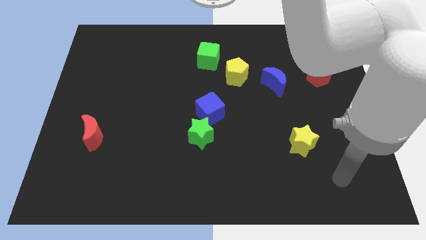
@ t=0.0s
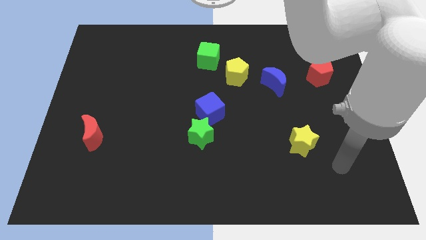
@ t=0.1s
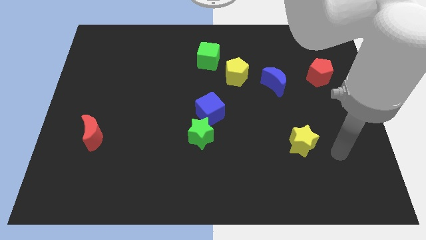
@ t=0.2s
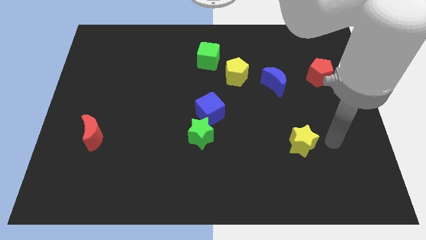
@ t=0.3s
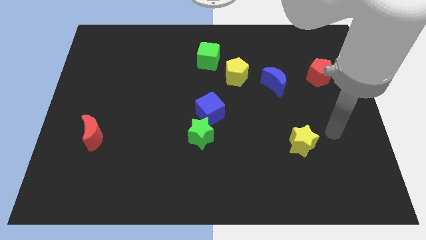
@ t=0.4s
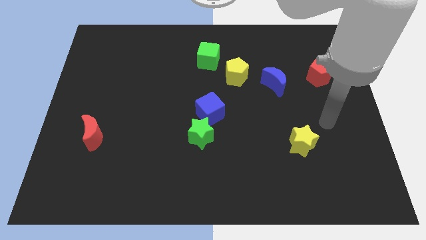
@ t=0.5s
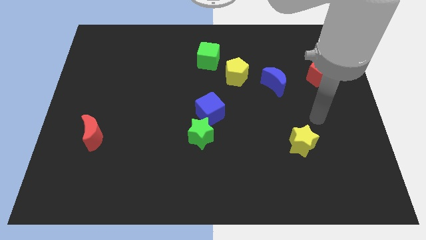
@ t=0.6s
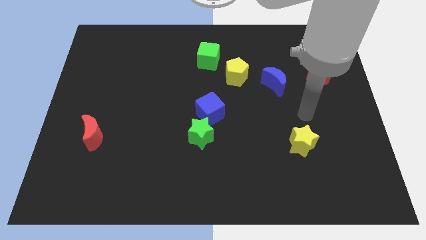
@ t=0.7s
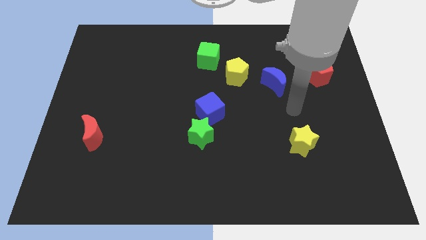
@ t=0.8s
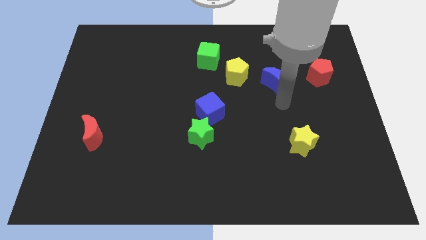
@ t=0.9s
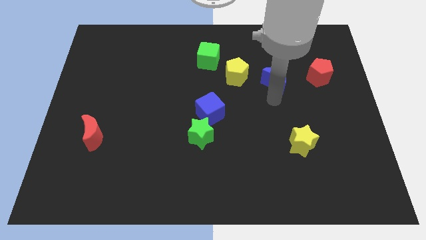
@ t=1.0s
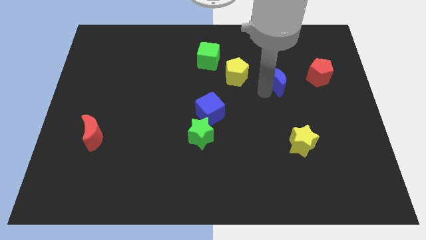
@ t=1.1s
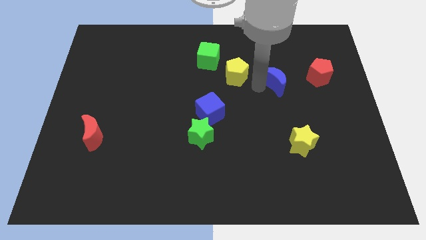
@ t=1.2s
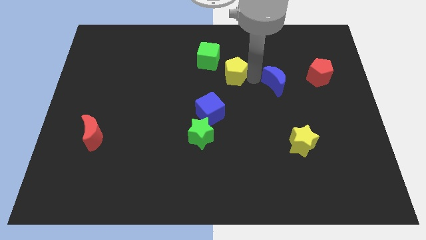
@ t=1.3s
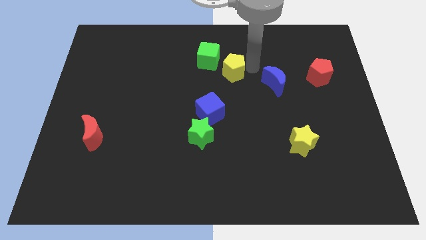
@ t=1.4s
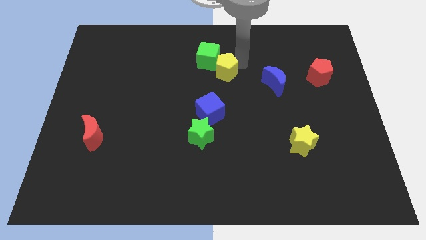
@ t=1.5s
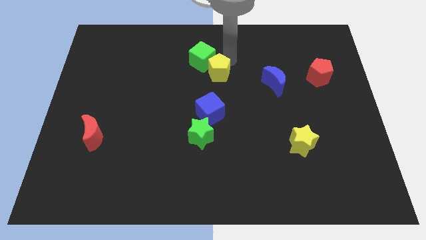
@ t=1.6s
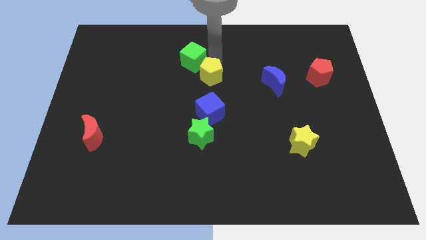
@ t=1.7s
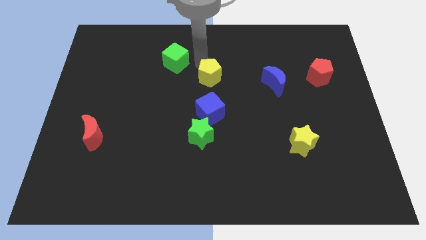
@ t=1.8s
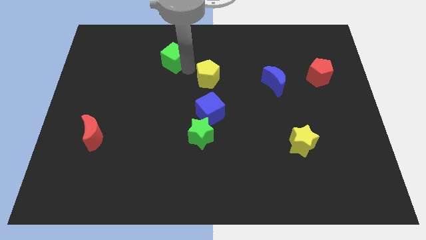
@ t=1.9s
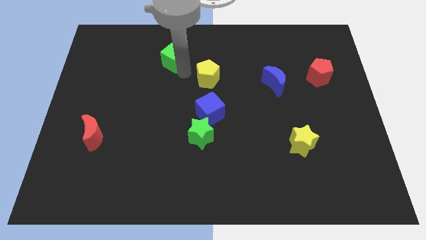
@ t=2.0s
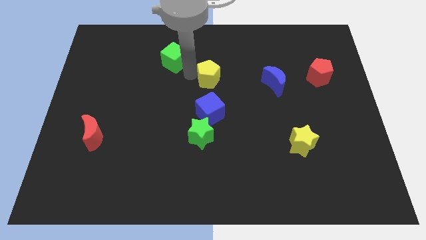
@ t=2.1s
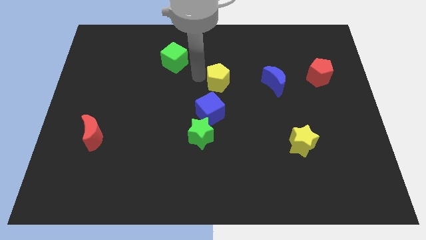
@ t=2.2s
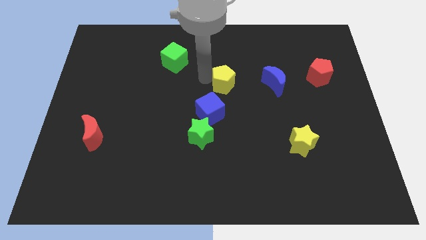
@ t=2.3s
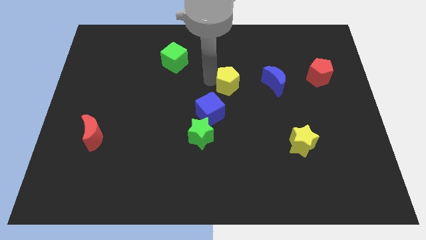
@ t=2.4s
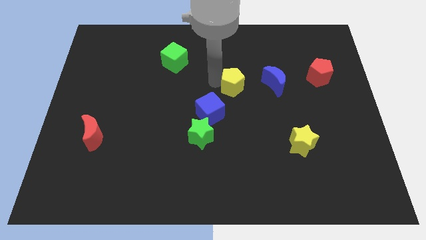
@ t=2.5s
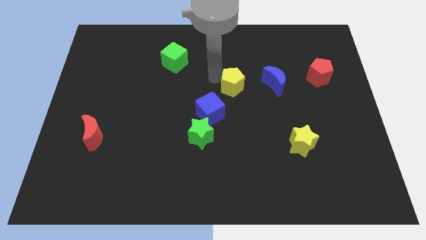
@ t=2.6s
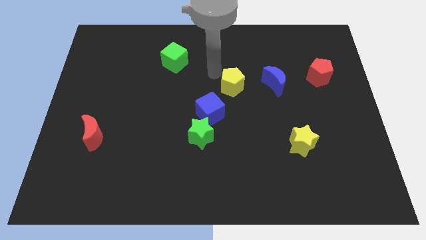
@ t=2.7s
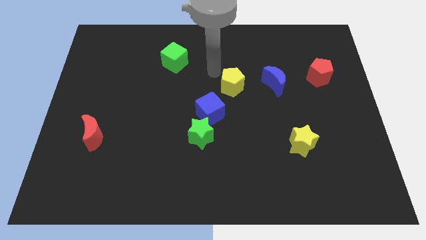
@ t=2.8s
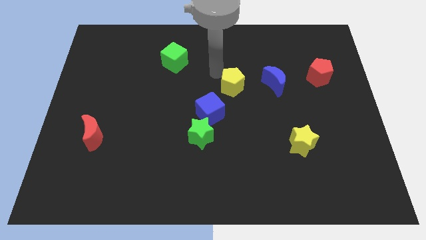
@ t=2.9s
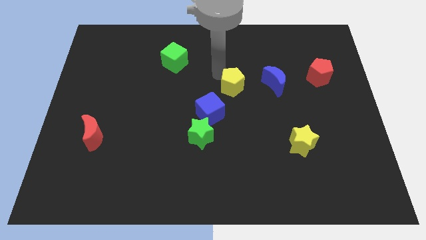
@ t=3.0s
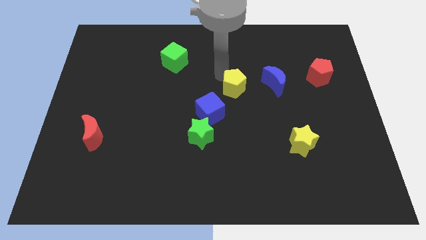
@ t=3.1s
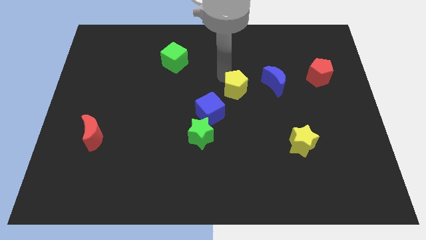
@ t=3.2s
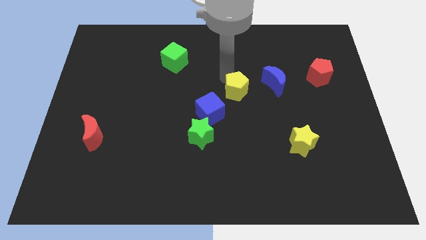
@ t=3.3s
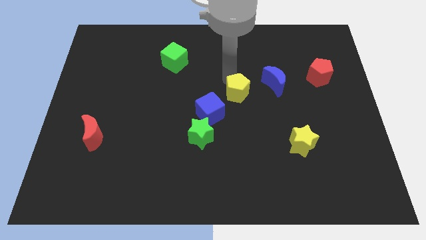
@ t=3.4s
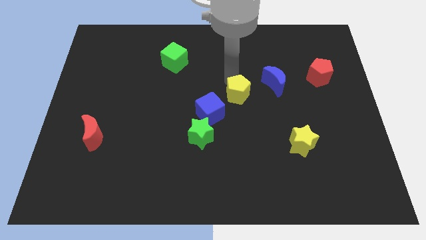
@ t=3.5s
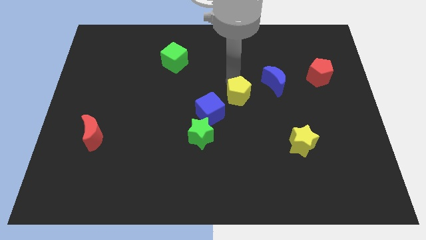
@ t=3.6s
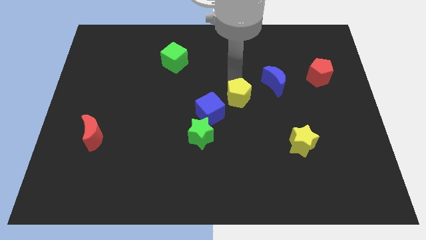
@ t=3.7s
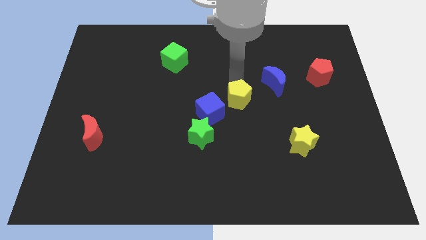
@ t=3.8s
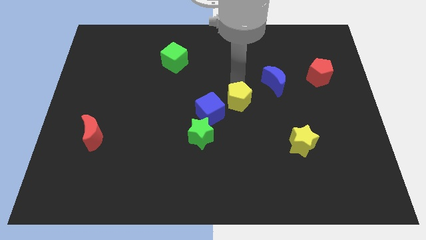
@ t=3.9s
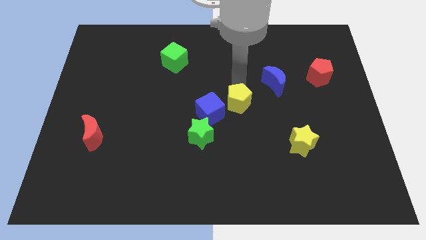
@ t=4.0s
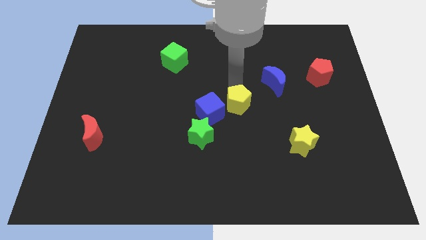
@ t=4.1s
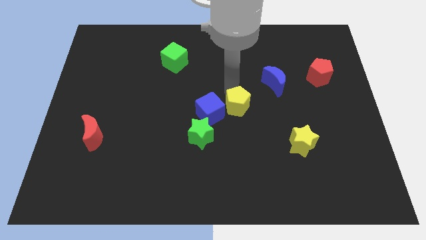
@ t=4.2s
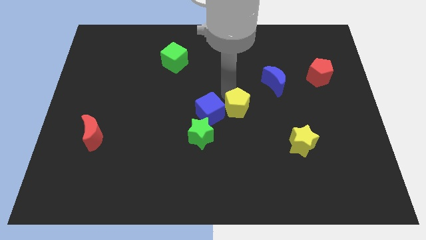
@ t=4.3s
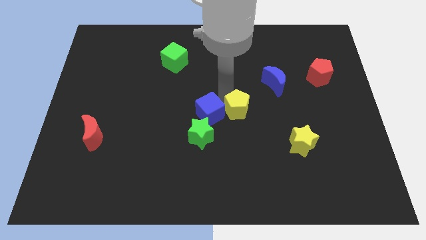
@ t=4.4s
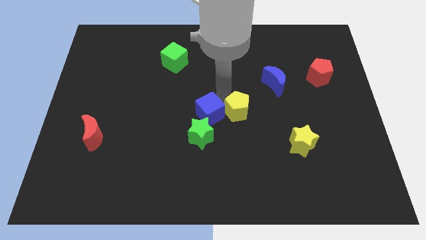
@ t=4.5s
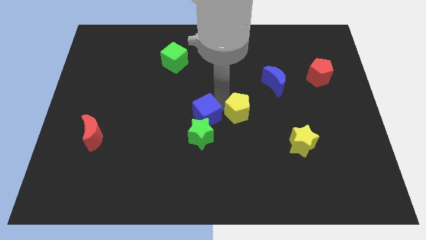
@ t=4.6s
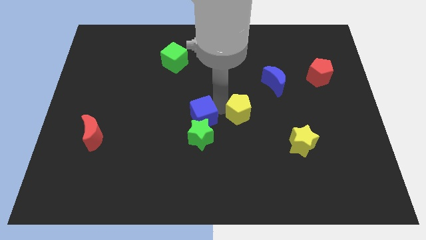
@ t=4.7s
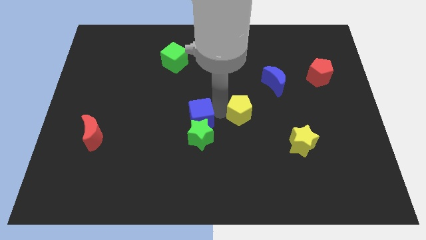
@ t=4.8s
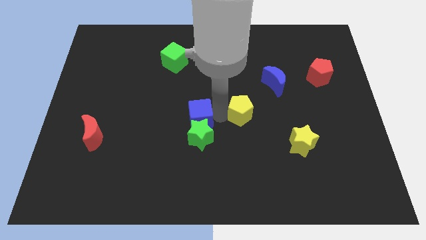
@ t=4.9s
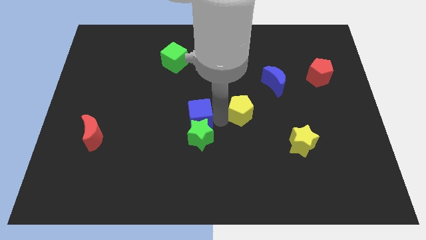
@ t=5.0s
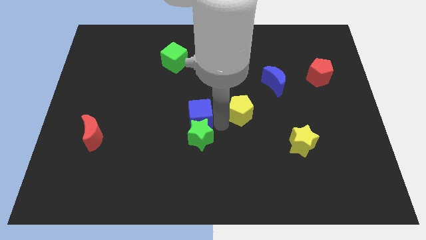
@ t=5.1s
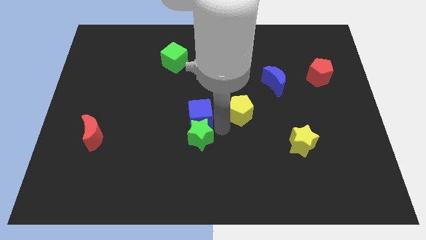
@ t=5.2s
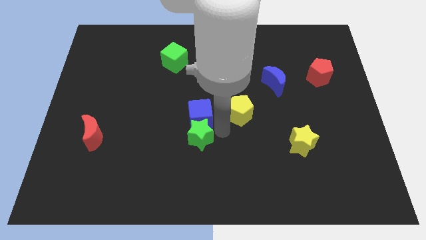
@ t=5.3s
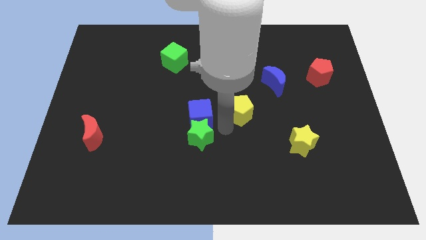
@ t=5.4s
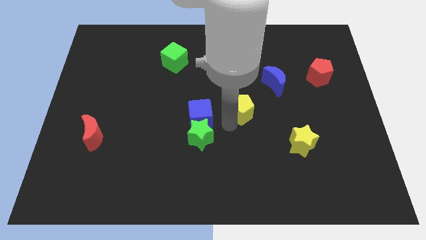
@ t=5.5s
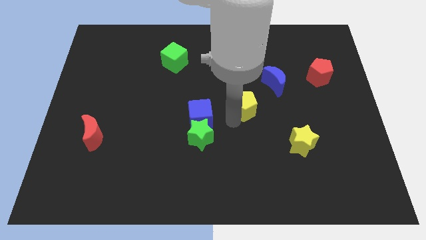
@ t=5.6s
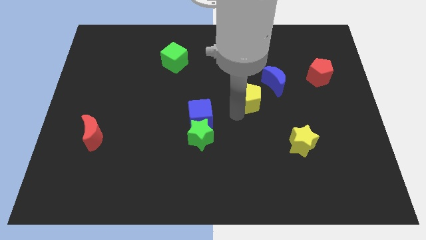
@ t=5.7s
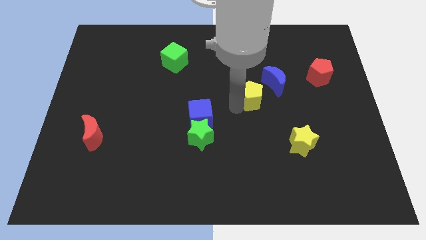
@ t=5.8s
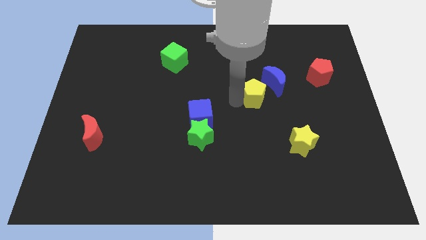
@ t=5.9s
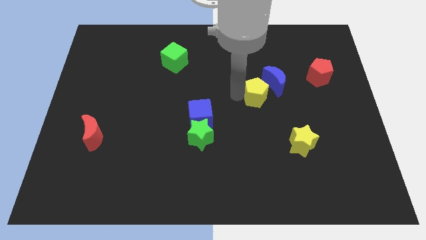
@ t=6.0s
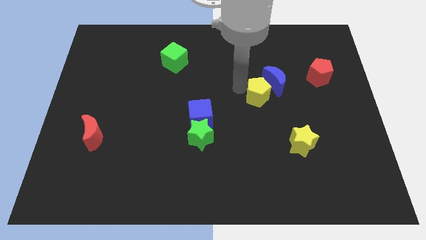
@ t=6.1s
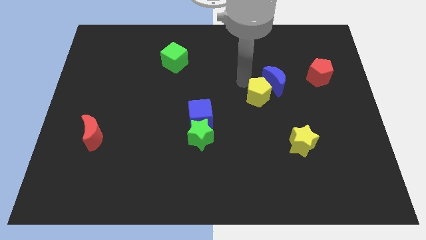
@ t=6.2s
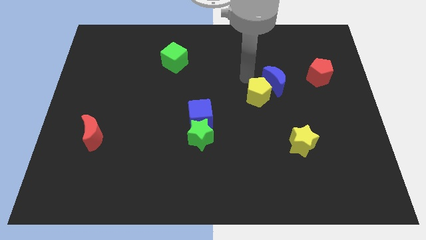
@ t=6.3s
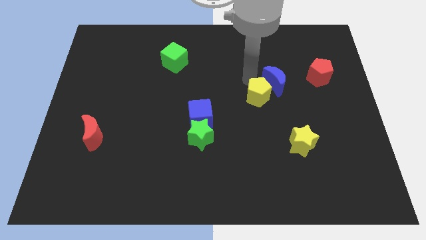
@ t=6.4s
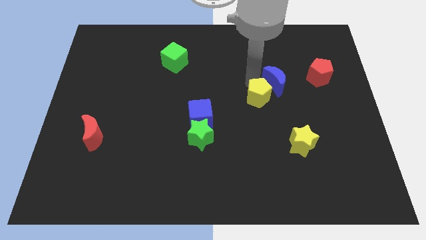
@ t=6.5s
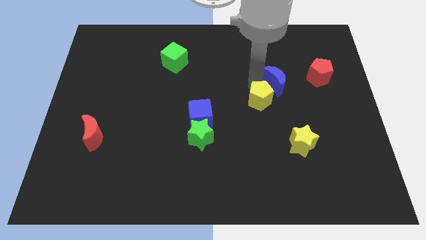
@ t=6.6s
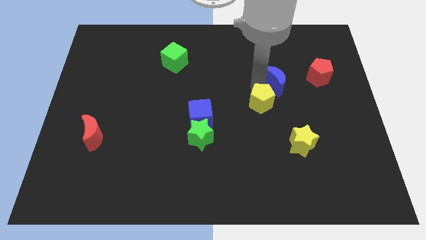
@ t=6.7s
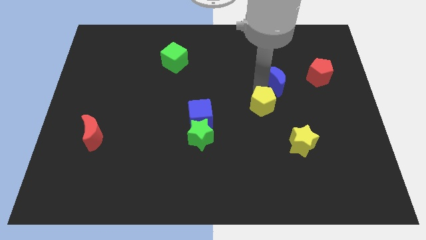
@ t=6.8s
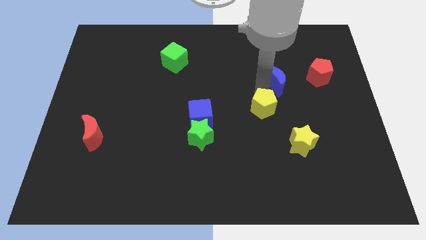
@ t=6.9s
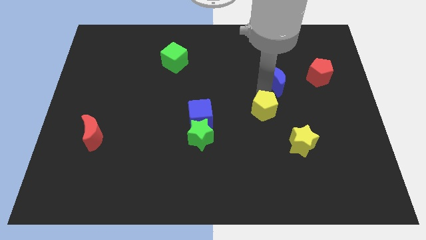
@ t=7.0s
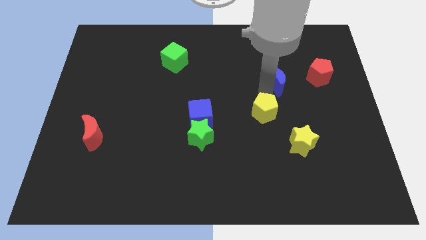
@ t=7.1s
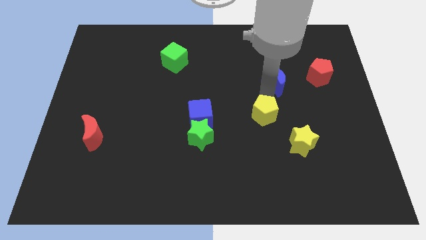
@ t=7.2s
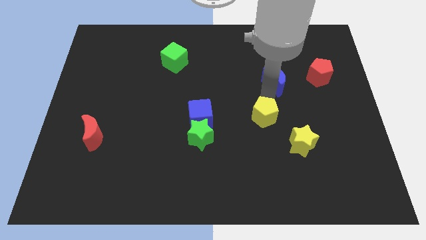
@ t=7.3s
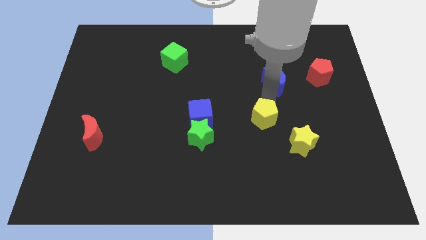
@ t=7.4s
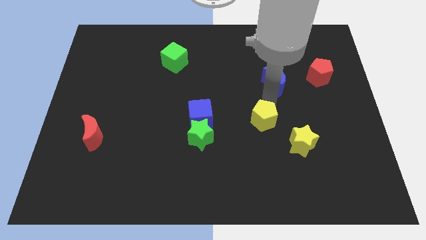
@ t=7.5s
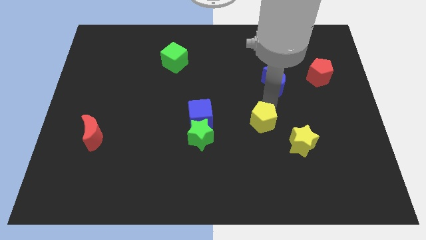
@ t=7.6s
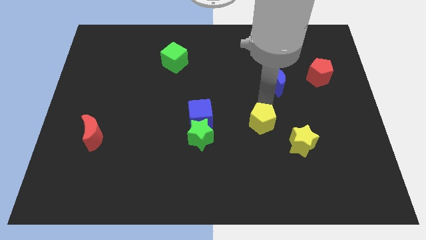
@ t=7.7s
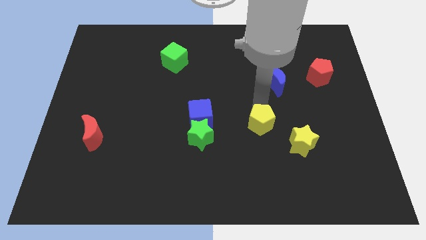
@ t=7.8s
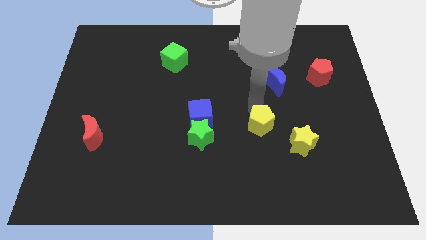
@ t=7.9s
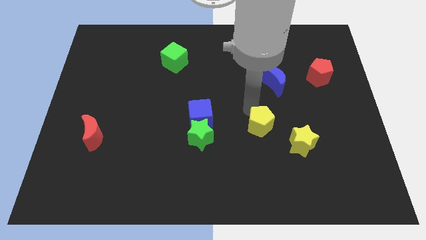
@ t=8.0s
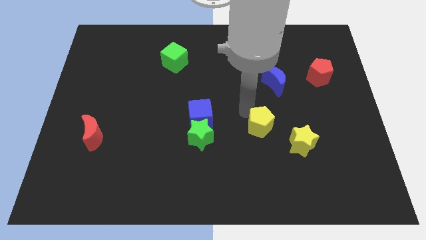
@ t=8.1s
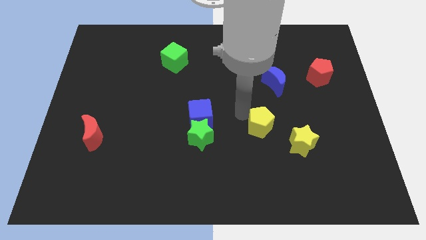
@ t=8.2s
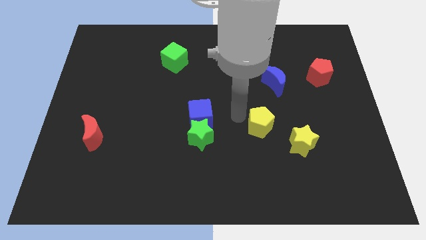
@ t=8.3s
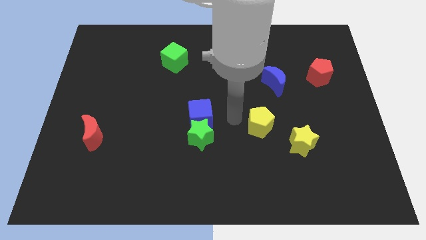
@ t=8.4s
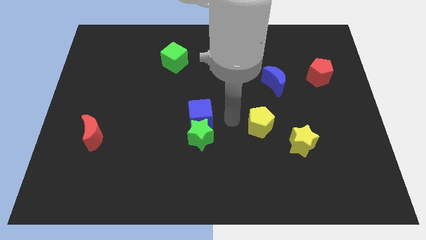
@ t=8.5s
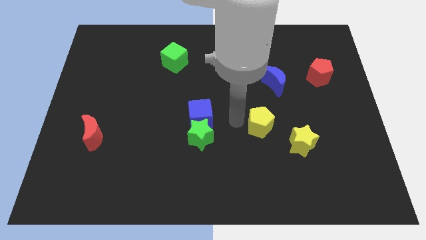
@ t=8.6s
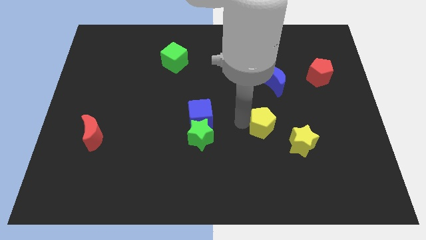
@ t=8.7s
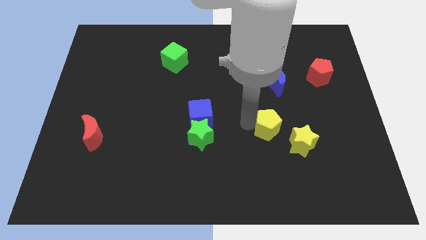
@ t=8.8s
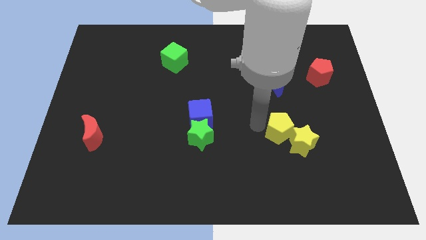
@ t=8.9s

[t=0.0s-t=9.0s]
move the yellow pentagon close to the yellow star
